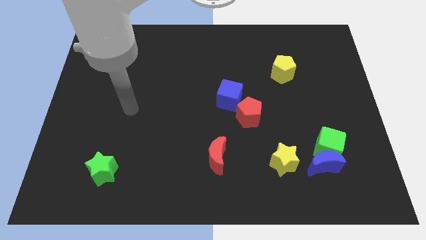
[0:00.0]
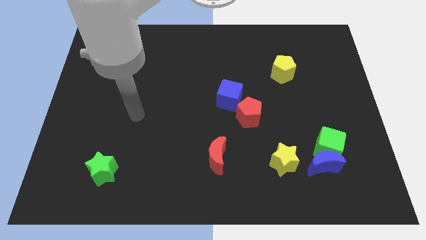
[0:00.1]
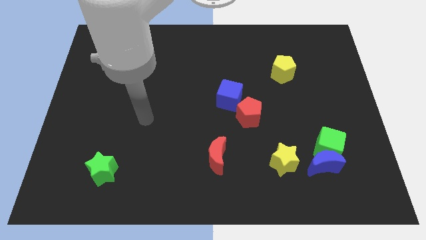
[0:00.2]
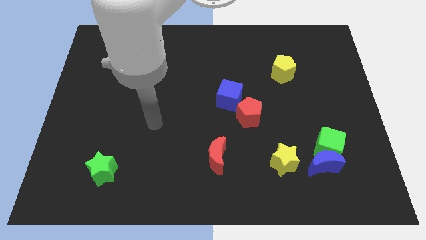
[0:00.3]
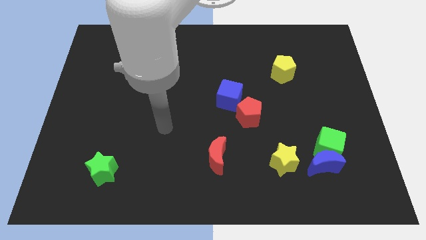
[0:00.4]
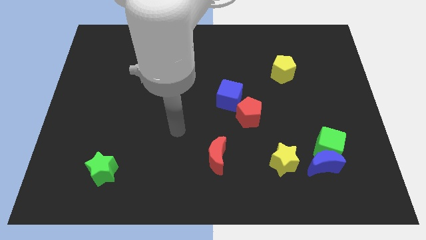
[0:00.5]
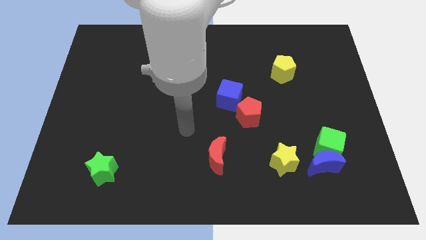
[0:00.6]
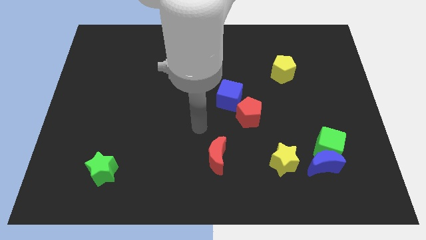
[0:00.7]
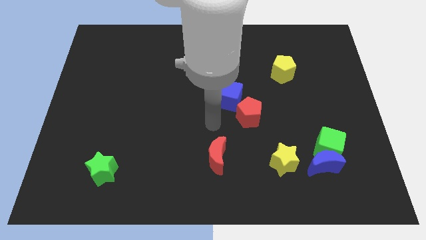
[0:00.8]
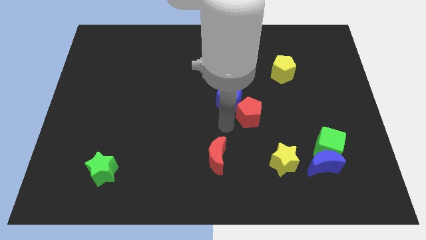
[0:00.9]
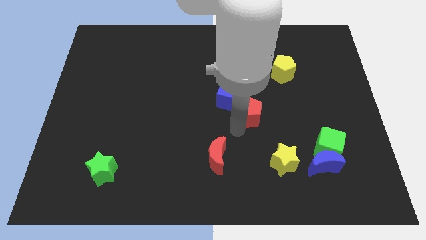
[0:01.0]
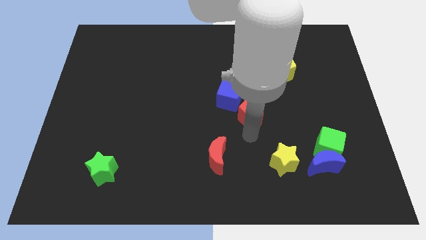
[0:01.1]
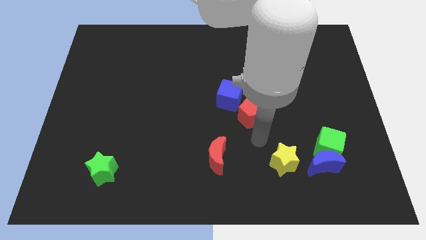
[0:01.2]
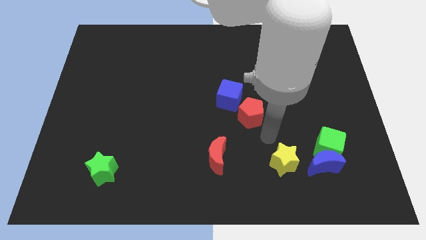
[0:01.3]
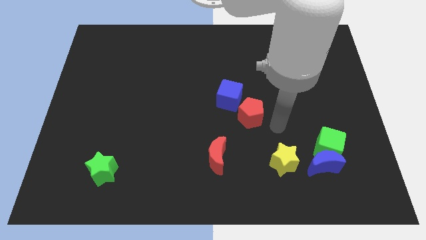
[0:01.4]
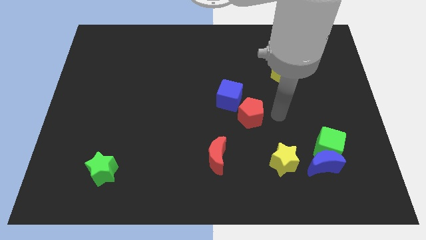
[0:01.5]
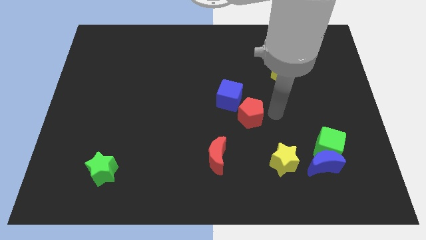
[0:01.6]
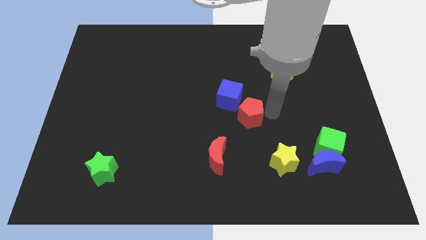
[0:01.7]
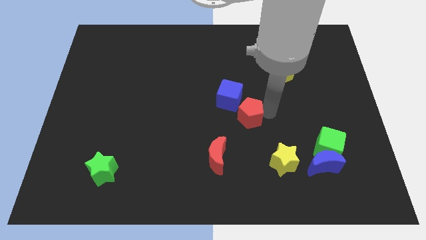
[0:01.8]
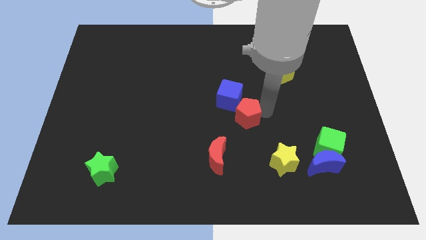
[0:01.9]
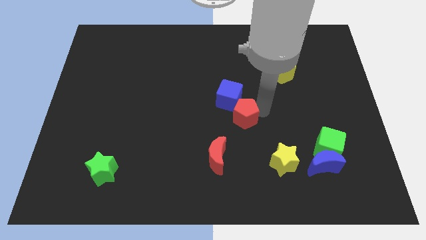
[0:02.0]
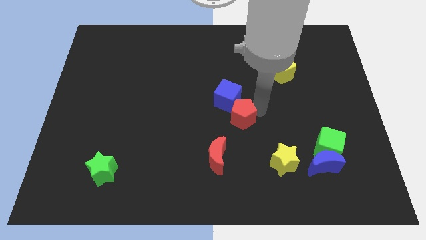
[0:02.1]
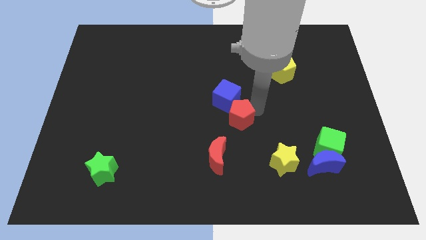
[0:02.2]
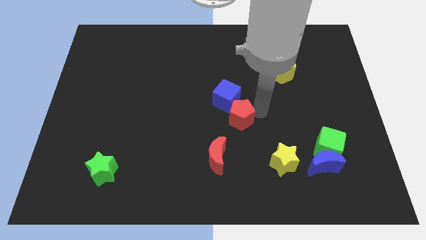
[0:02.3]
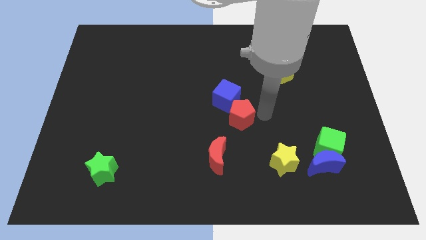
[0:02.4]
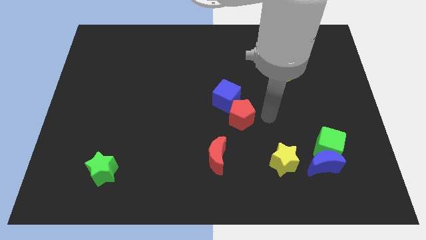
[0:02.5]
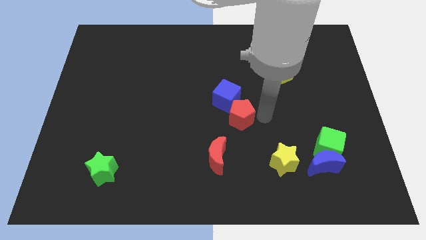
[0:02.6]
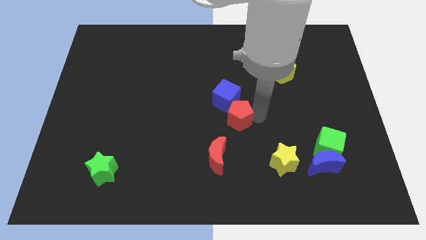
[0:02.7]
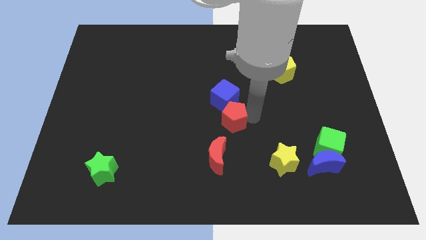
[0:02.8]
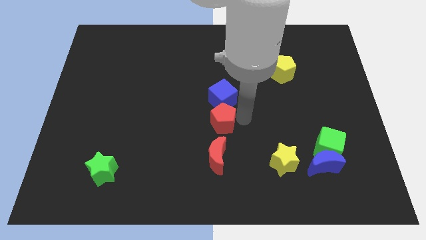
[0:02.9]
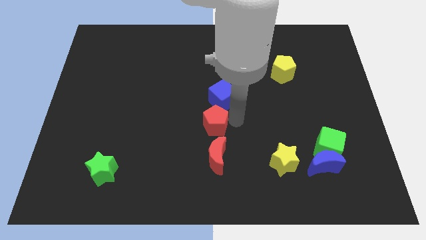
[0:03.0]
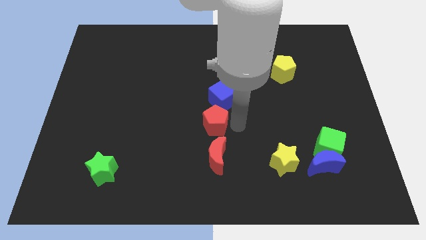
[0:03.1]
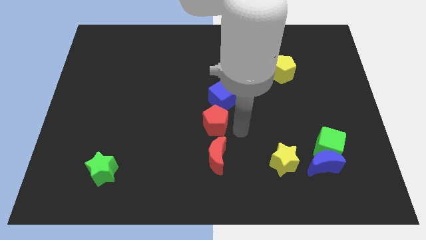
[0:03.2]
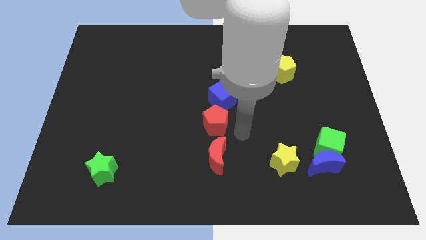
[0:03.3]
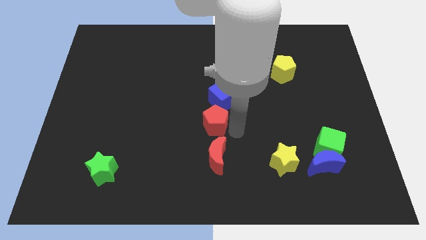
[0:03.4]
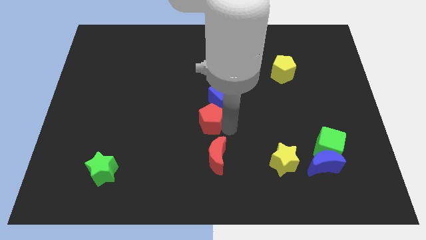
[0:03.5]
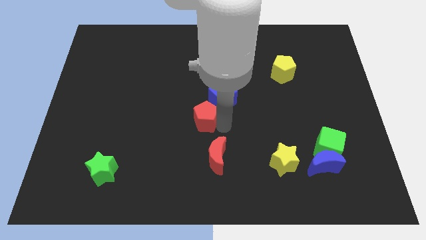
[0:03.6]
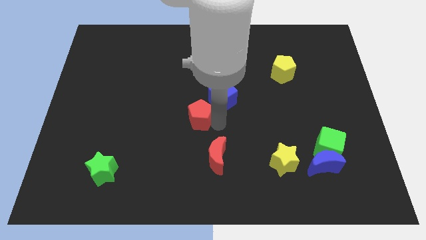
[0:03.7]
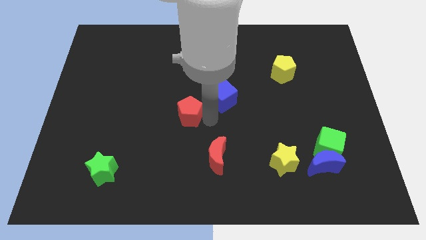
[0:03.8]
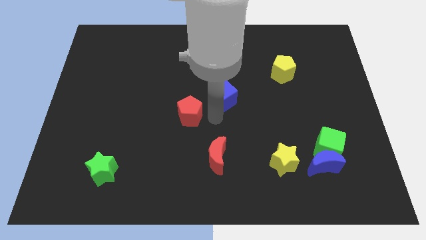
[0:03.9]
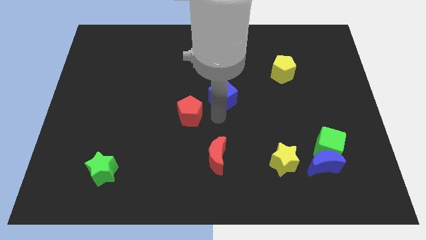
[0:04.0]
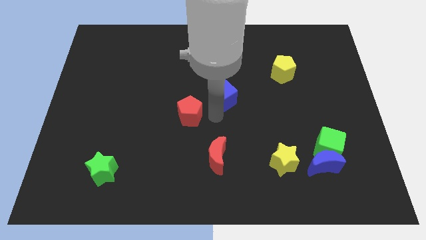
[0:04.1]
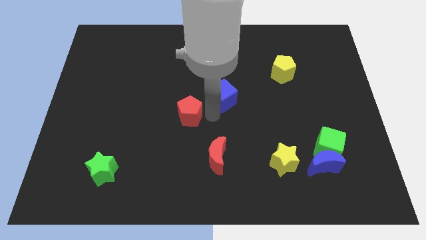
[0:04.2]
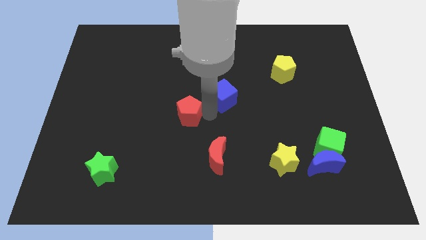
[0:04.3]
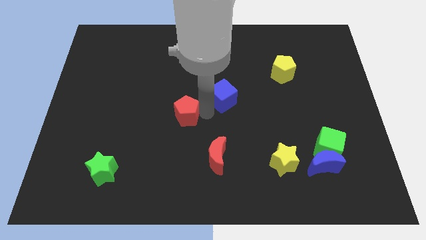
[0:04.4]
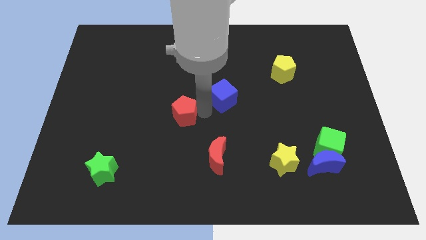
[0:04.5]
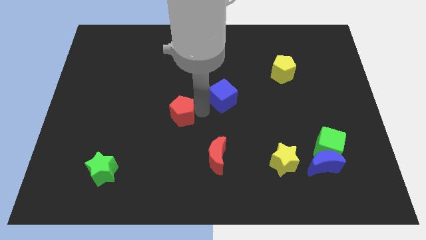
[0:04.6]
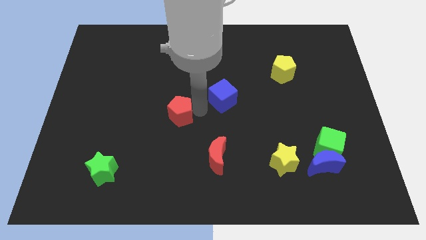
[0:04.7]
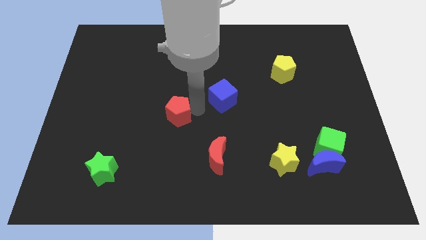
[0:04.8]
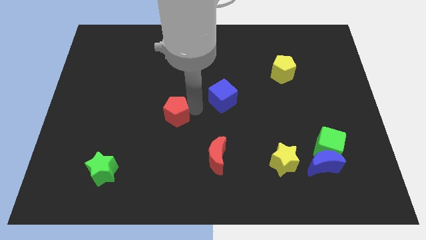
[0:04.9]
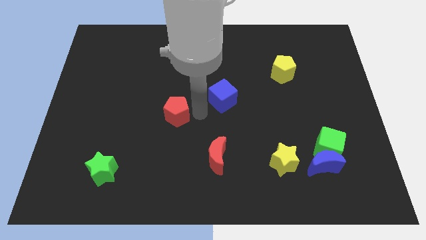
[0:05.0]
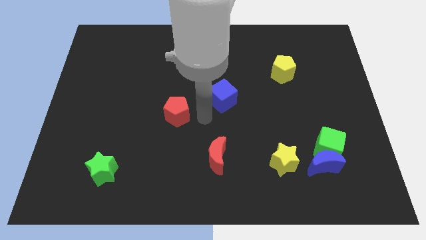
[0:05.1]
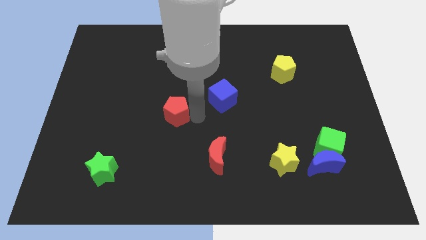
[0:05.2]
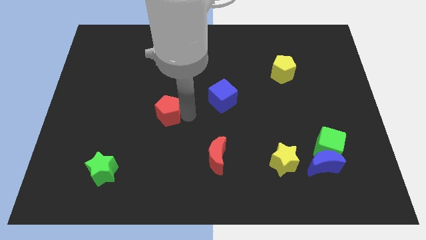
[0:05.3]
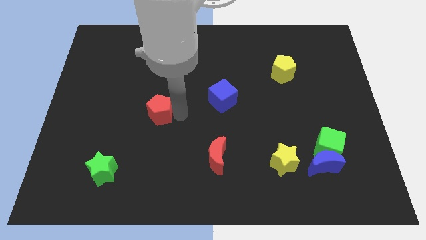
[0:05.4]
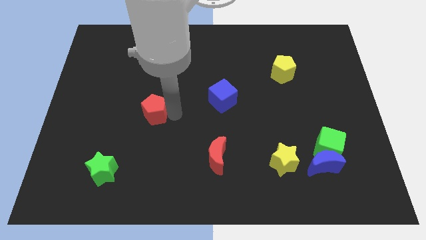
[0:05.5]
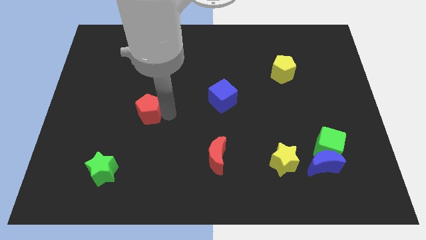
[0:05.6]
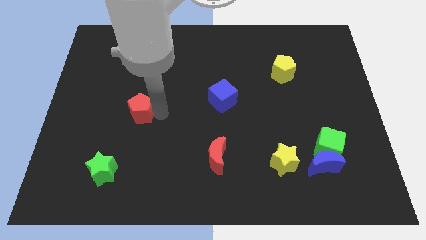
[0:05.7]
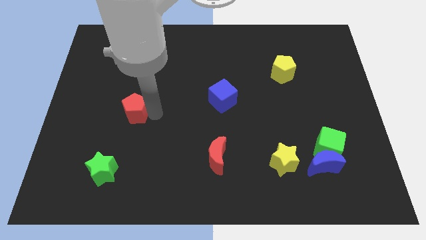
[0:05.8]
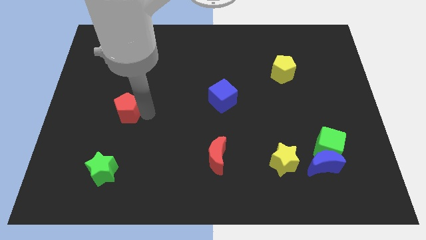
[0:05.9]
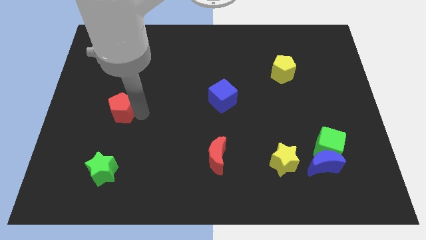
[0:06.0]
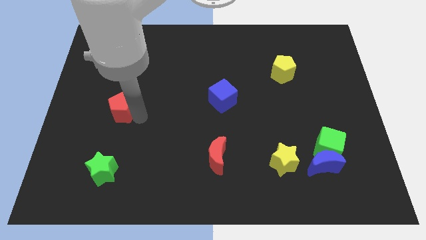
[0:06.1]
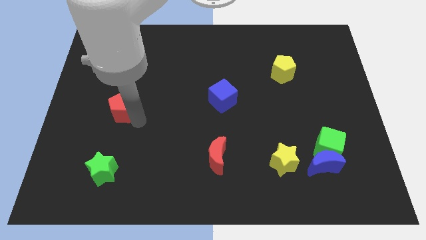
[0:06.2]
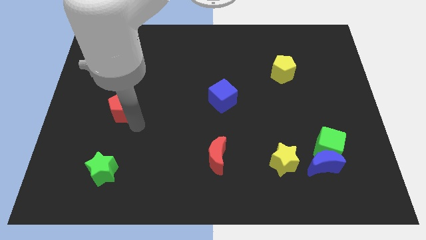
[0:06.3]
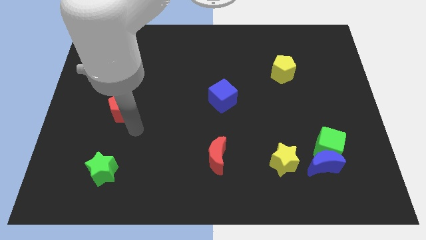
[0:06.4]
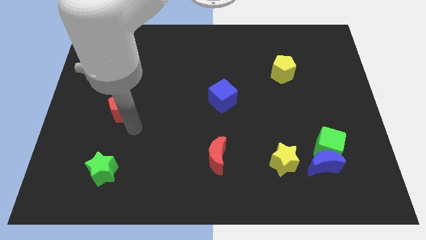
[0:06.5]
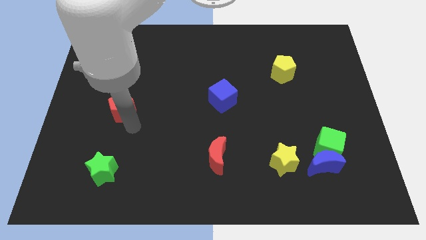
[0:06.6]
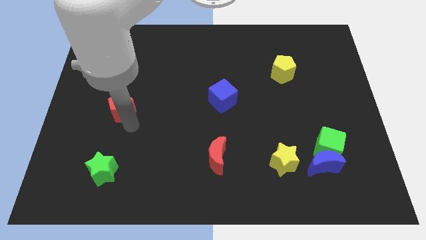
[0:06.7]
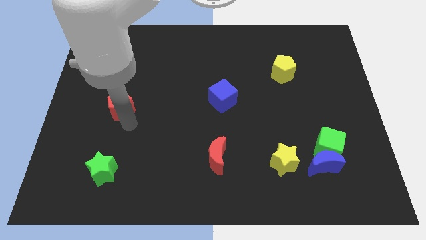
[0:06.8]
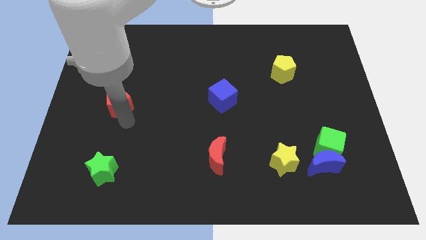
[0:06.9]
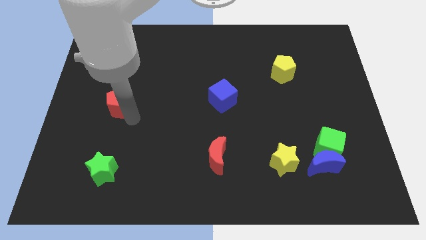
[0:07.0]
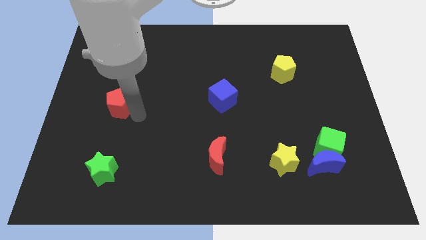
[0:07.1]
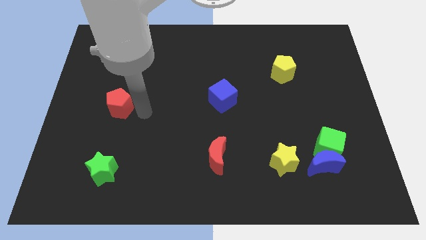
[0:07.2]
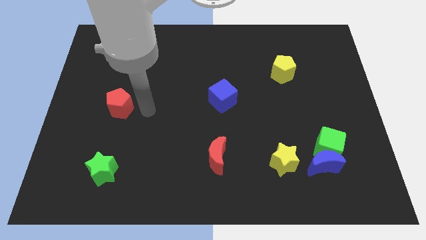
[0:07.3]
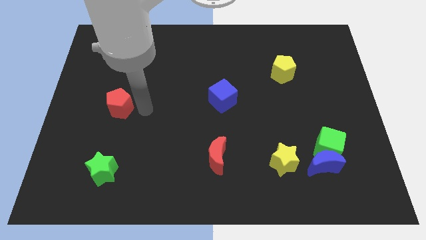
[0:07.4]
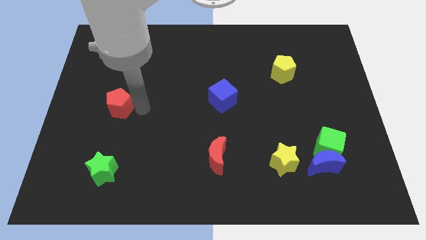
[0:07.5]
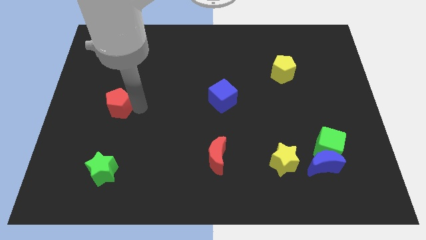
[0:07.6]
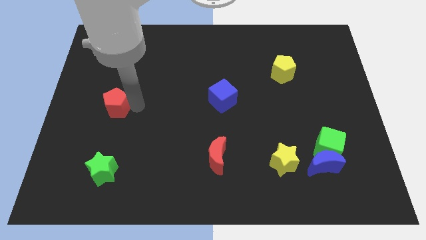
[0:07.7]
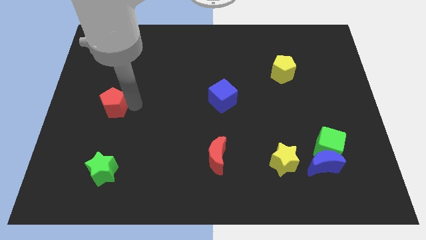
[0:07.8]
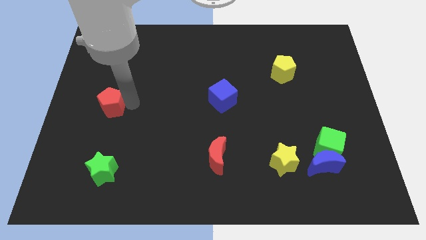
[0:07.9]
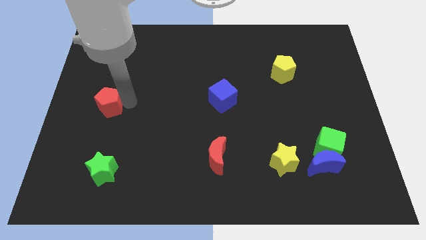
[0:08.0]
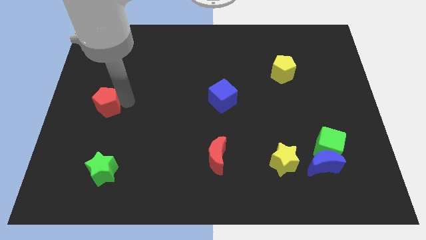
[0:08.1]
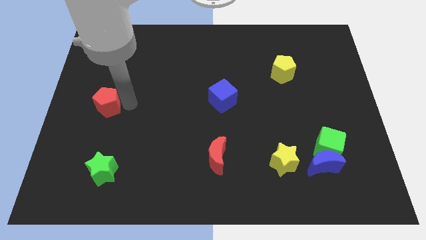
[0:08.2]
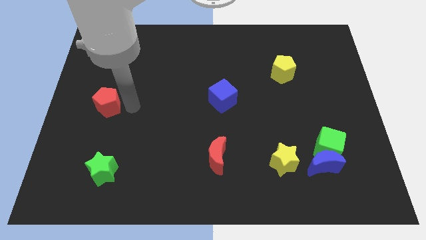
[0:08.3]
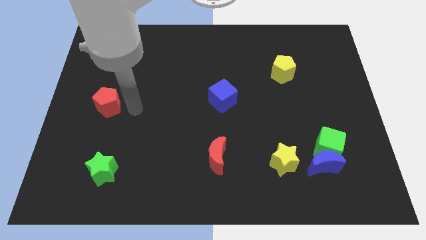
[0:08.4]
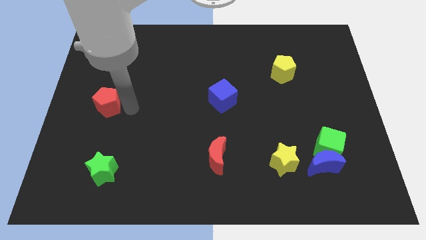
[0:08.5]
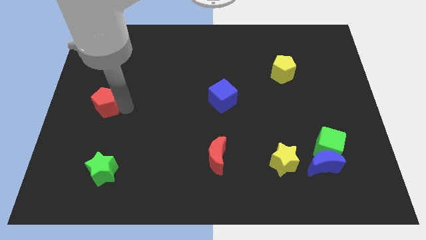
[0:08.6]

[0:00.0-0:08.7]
move the red pentagon to the left side
